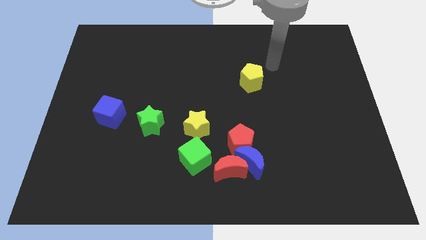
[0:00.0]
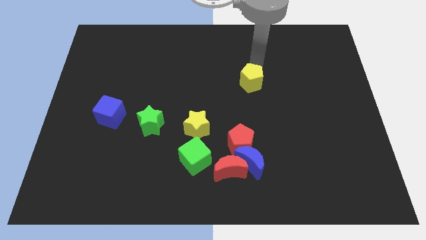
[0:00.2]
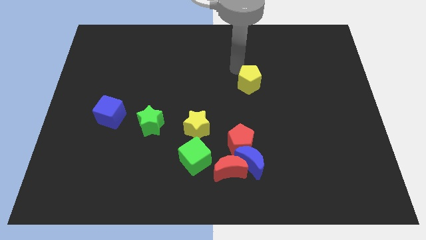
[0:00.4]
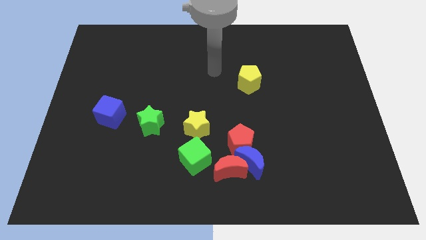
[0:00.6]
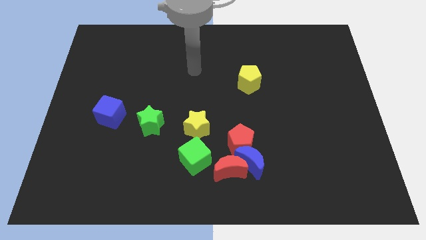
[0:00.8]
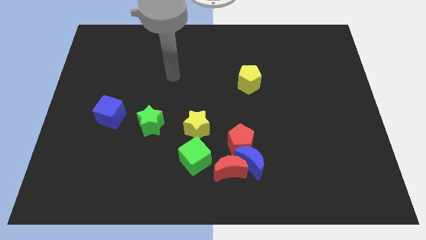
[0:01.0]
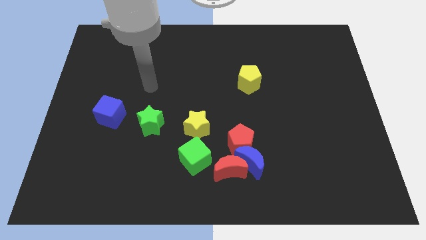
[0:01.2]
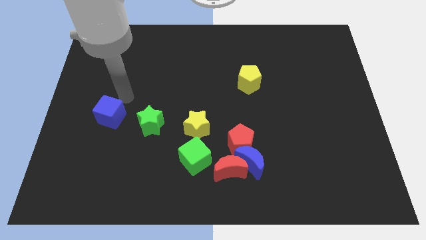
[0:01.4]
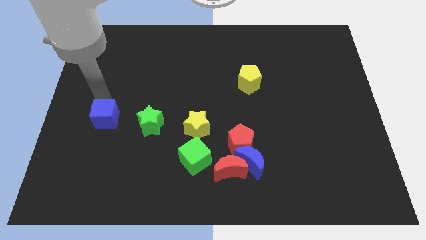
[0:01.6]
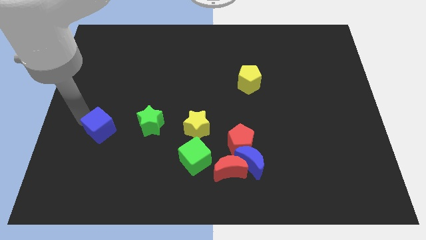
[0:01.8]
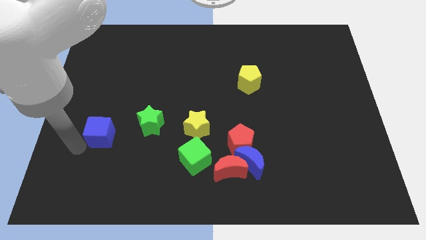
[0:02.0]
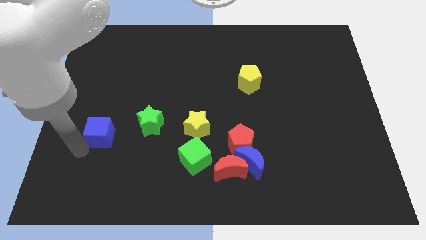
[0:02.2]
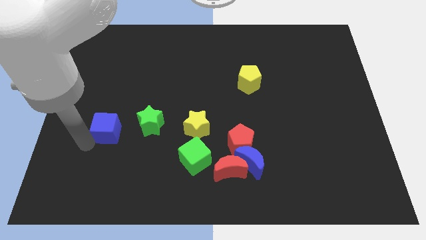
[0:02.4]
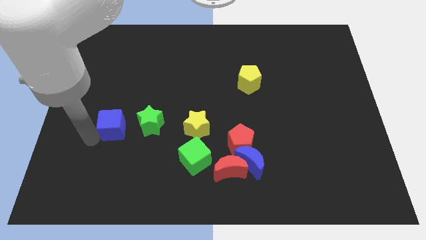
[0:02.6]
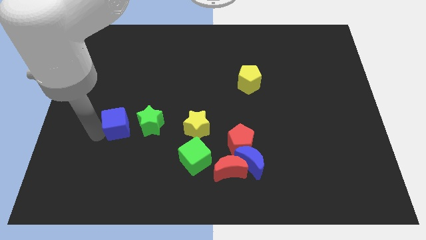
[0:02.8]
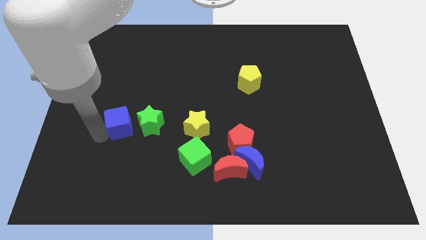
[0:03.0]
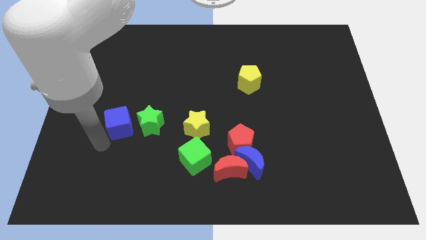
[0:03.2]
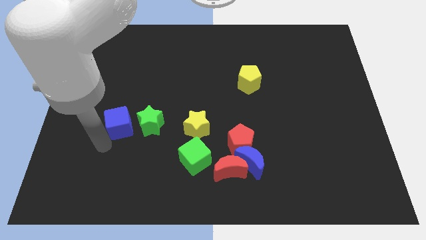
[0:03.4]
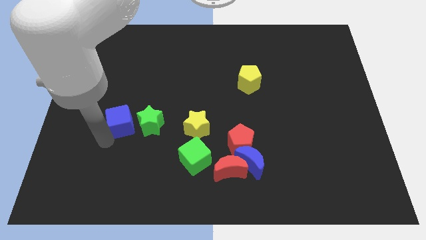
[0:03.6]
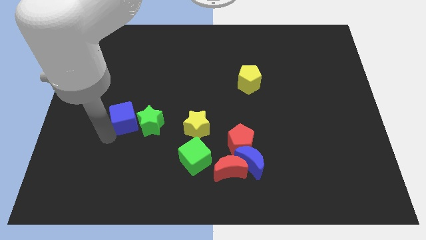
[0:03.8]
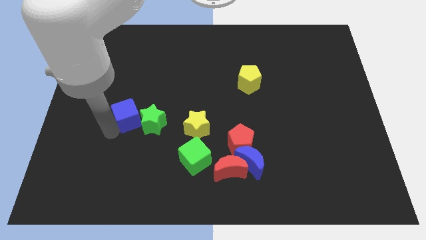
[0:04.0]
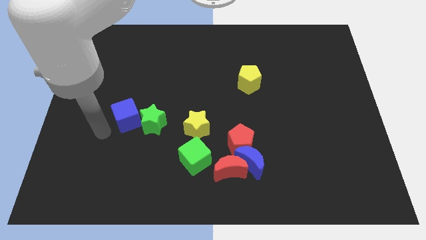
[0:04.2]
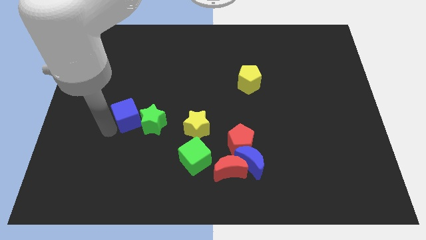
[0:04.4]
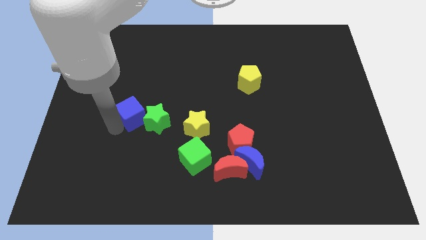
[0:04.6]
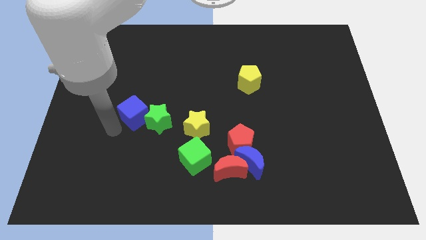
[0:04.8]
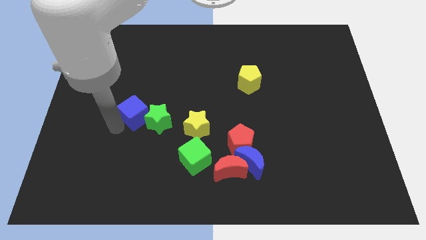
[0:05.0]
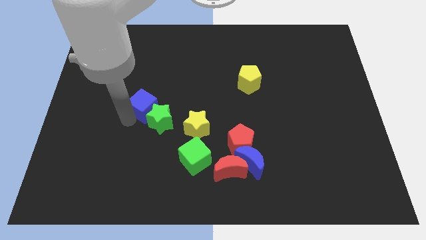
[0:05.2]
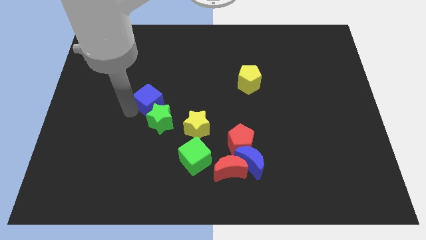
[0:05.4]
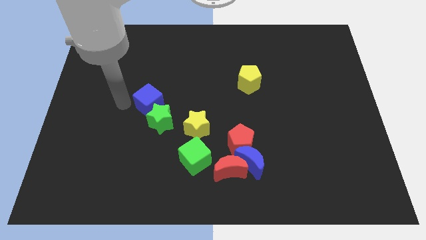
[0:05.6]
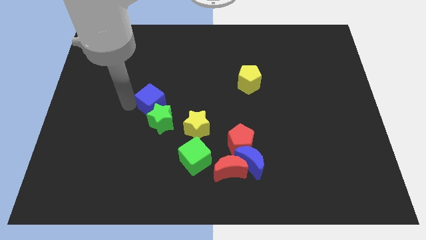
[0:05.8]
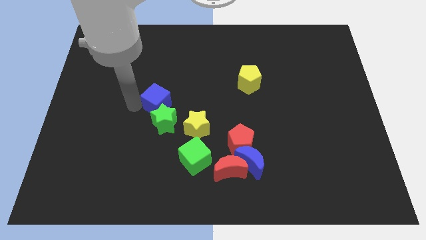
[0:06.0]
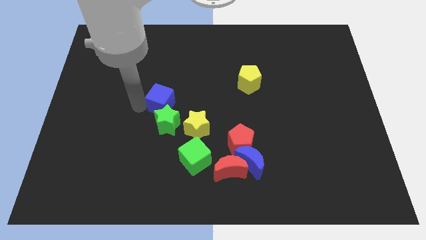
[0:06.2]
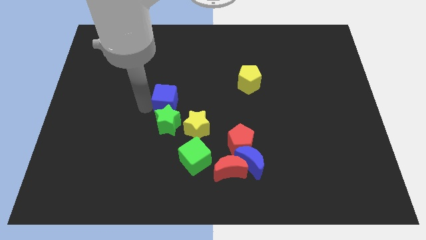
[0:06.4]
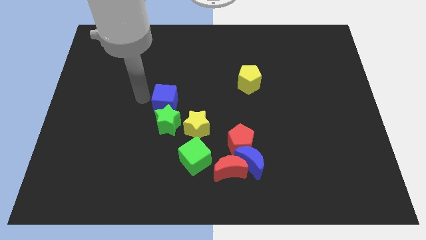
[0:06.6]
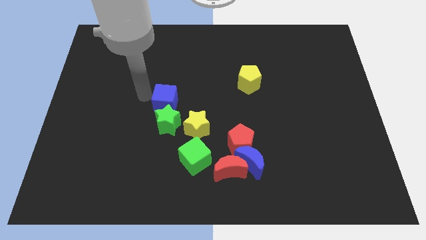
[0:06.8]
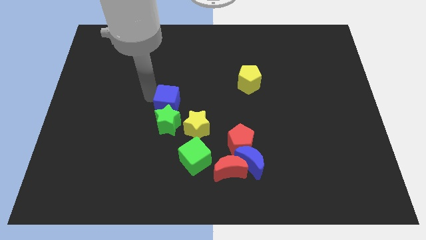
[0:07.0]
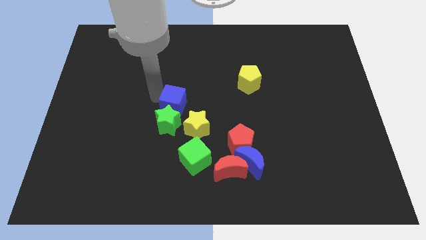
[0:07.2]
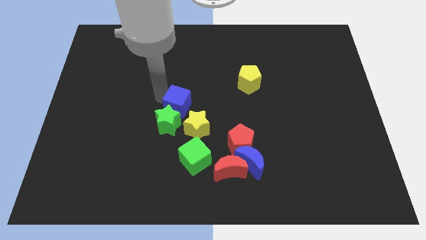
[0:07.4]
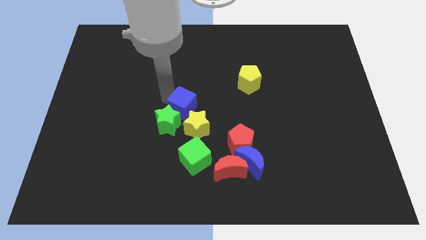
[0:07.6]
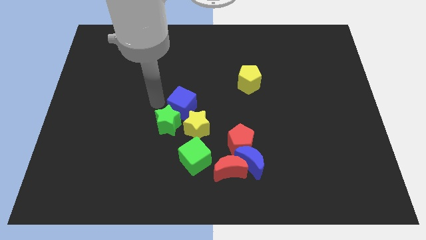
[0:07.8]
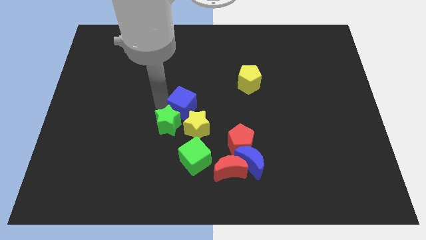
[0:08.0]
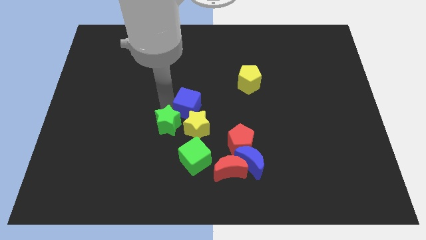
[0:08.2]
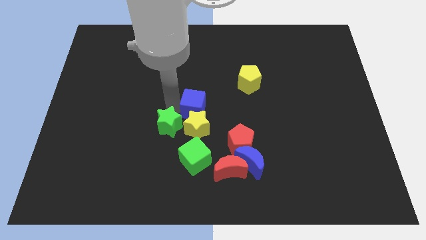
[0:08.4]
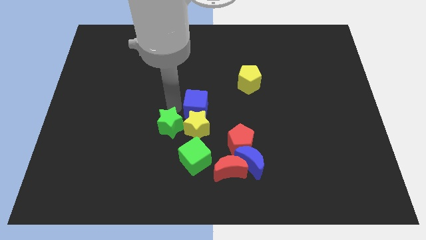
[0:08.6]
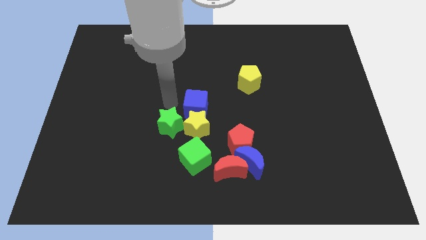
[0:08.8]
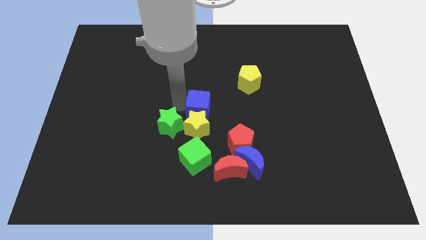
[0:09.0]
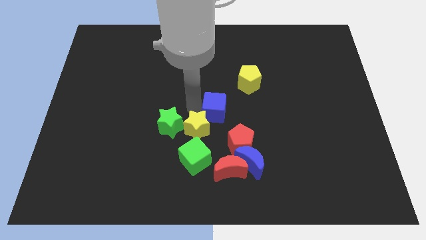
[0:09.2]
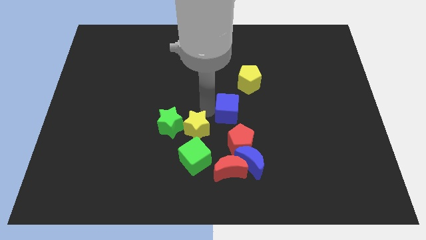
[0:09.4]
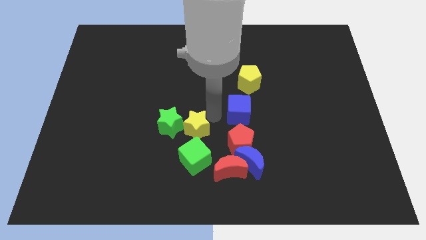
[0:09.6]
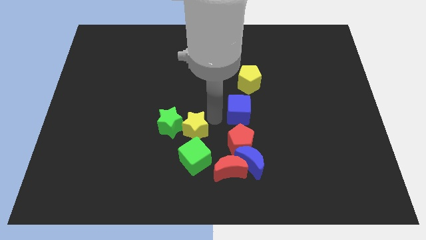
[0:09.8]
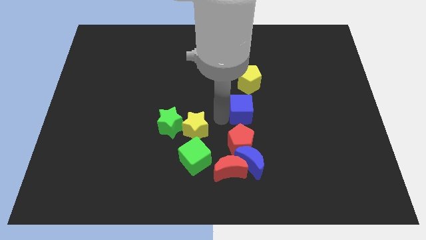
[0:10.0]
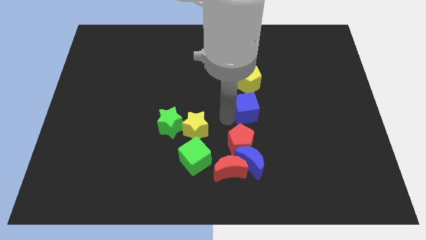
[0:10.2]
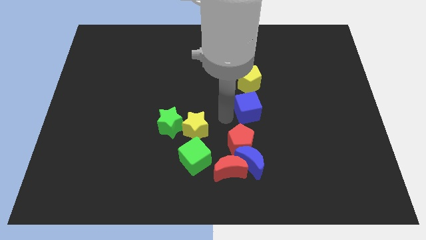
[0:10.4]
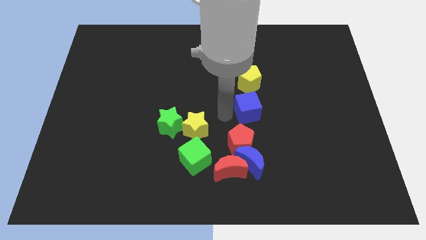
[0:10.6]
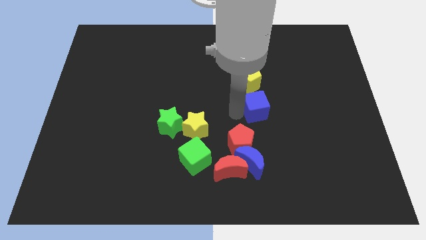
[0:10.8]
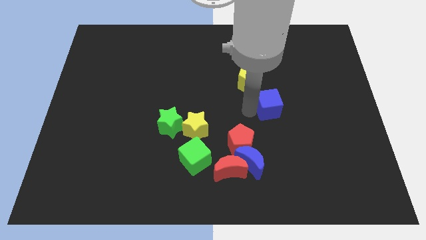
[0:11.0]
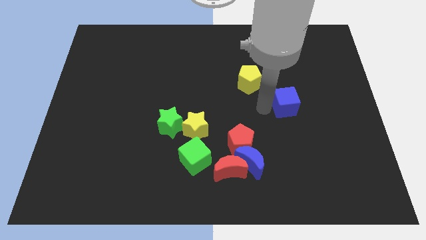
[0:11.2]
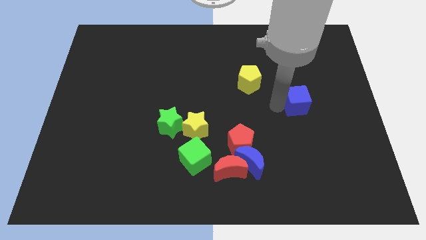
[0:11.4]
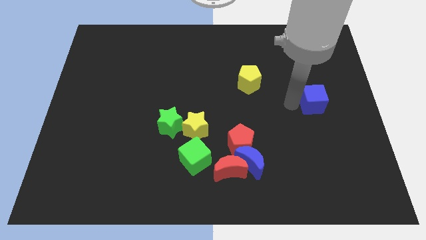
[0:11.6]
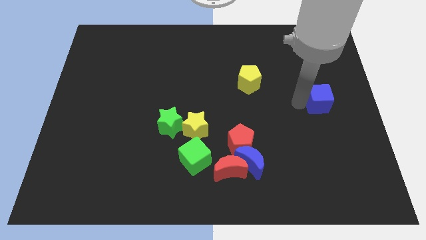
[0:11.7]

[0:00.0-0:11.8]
push the blue cube to the center right

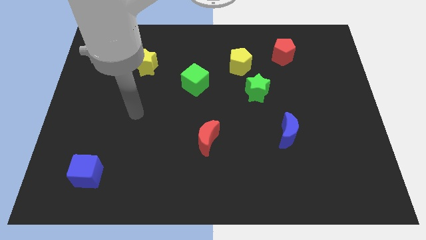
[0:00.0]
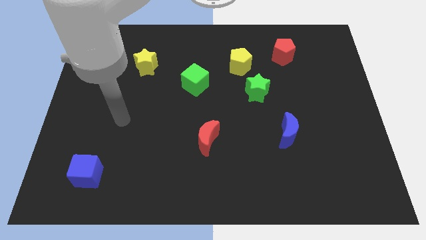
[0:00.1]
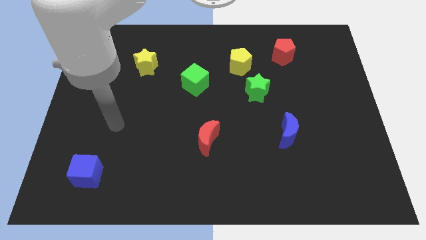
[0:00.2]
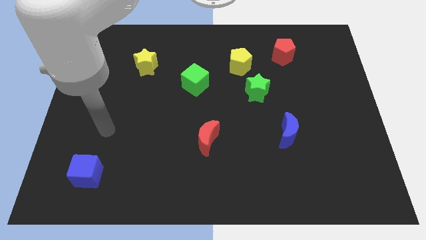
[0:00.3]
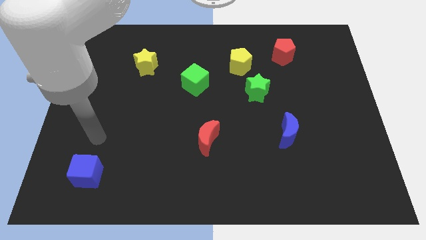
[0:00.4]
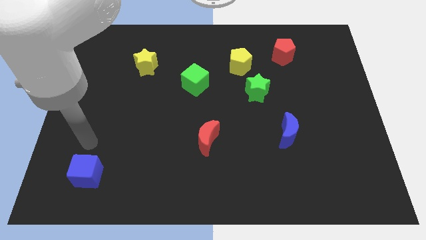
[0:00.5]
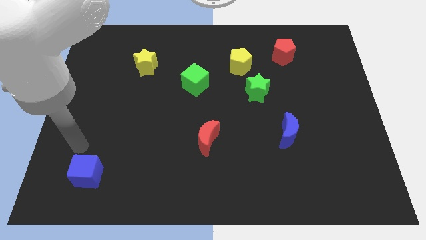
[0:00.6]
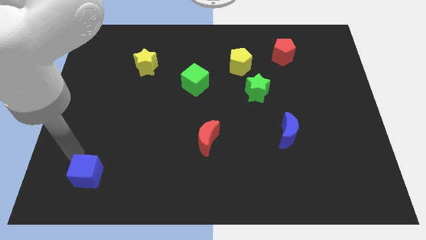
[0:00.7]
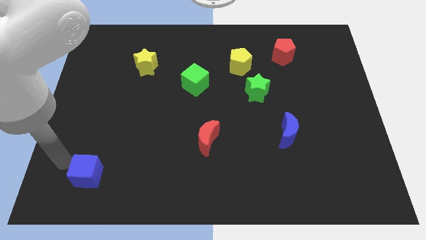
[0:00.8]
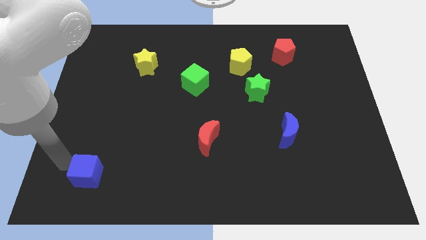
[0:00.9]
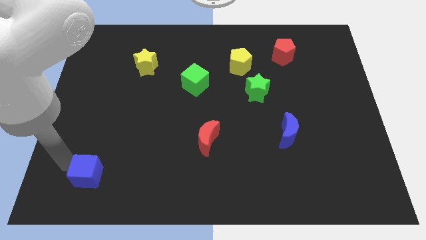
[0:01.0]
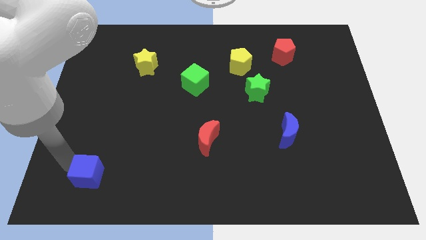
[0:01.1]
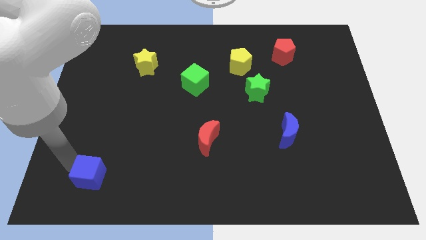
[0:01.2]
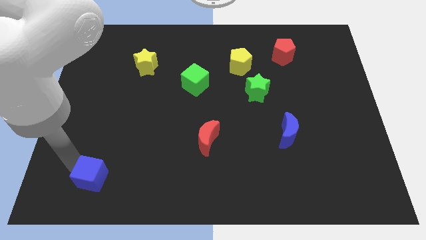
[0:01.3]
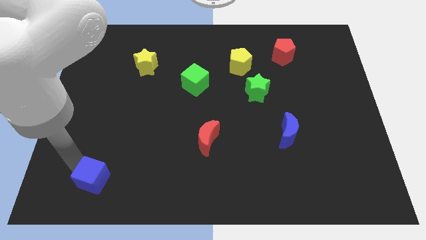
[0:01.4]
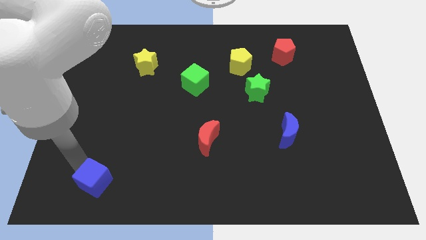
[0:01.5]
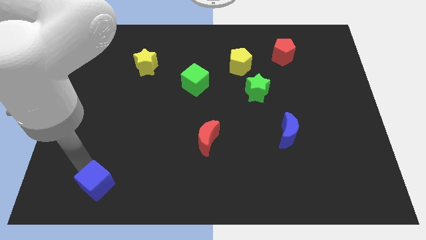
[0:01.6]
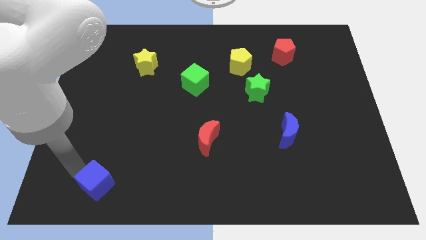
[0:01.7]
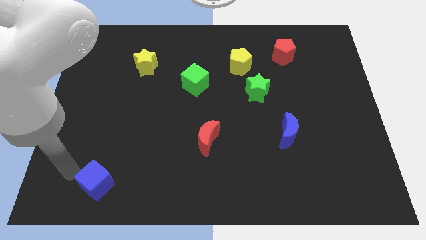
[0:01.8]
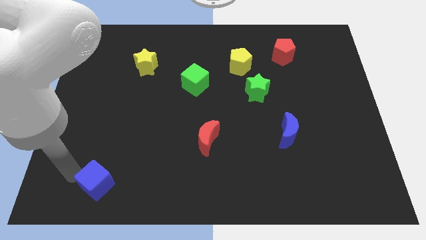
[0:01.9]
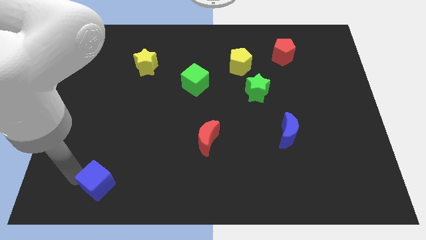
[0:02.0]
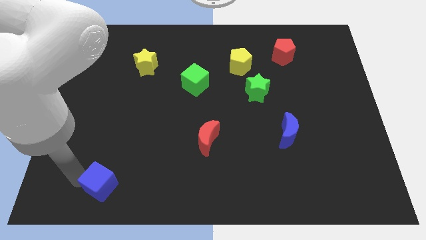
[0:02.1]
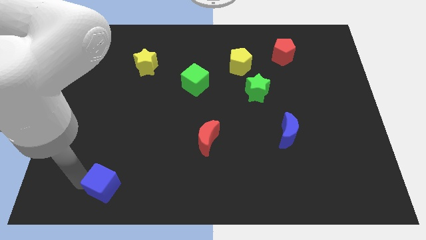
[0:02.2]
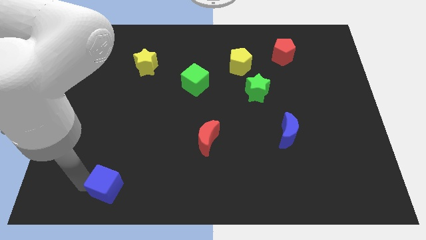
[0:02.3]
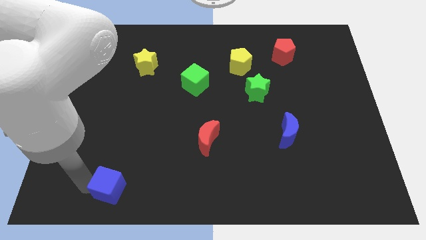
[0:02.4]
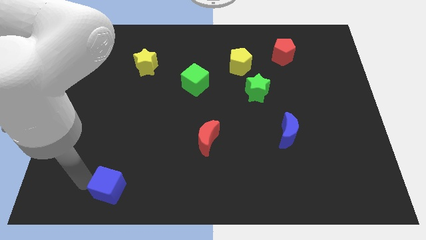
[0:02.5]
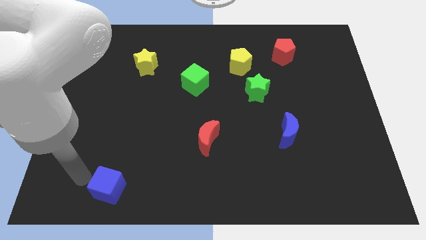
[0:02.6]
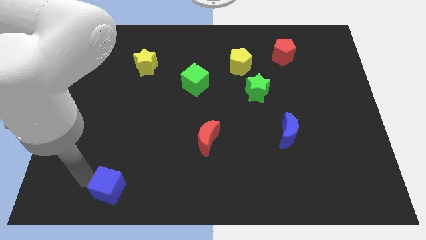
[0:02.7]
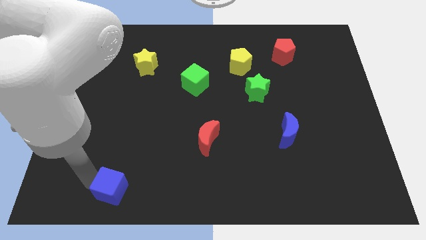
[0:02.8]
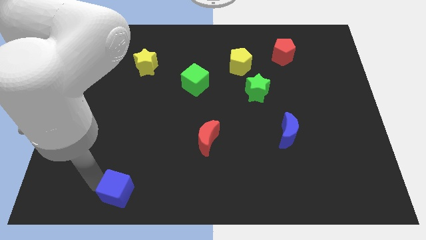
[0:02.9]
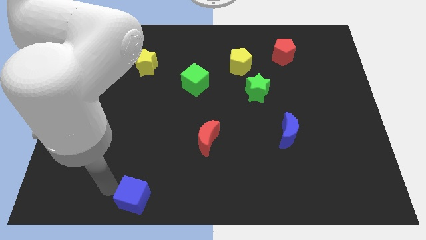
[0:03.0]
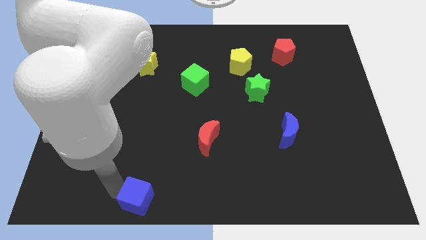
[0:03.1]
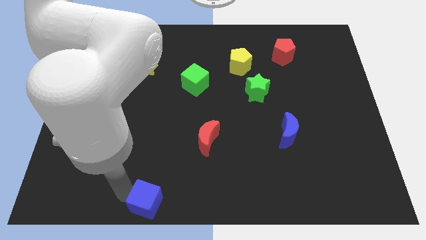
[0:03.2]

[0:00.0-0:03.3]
move the blue cube to the bottom side
